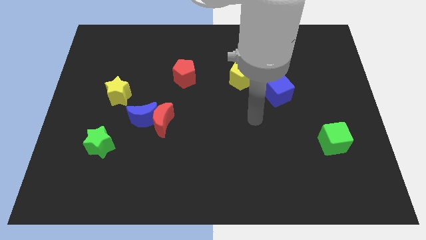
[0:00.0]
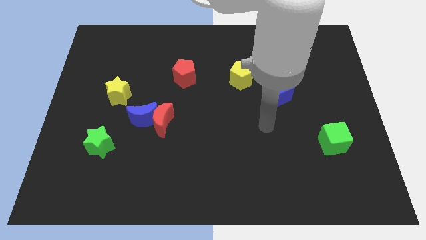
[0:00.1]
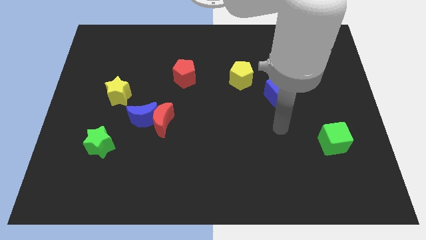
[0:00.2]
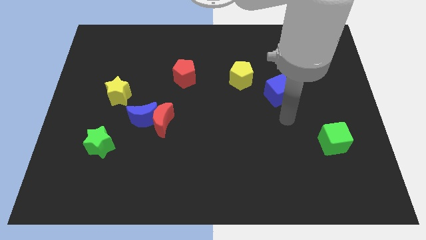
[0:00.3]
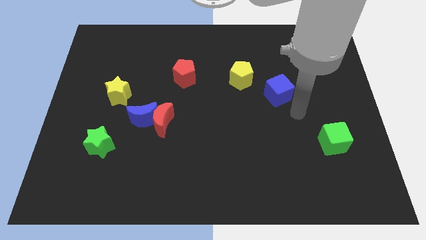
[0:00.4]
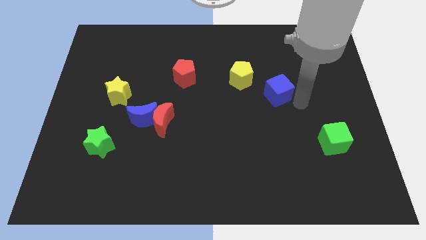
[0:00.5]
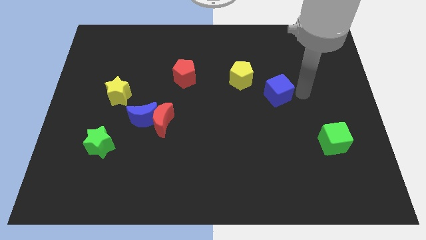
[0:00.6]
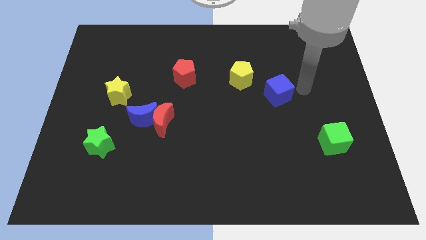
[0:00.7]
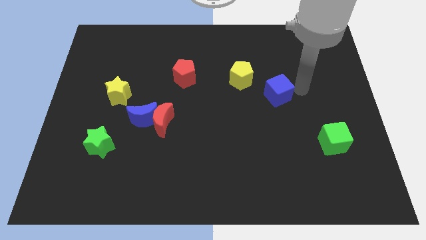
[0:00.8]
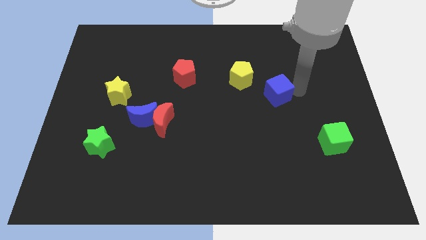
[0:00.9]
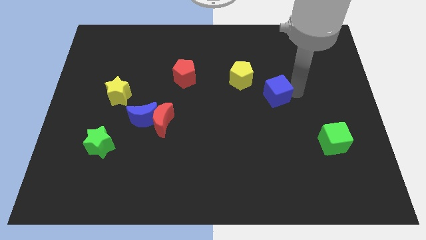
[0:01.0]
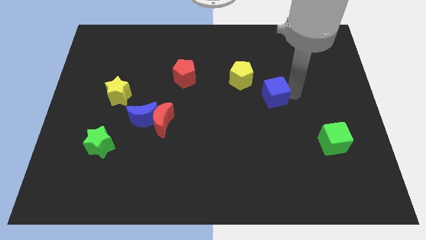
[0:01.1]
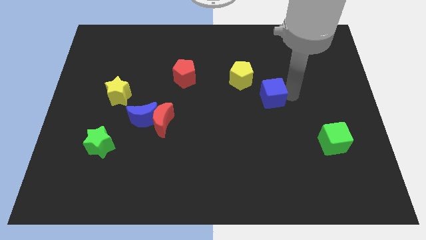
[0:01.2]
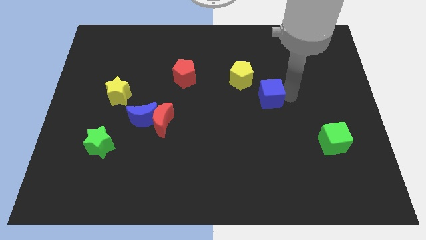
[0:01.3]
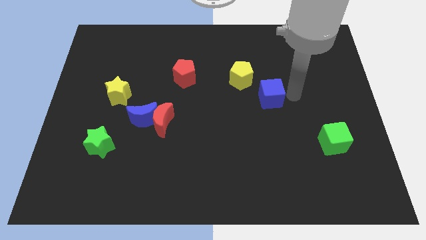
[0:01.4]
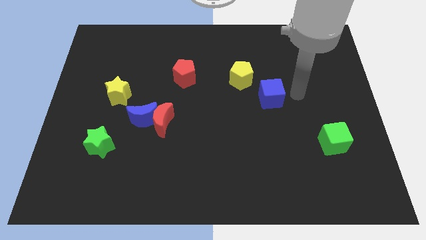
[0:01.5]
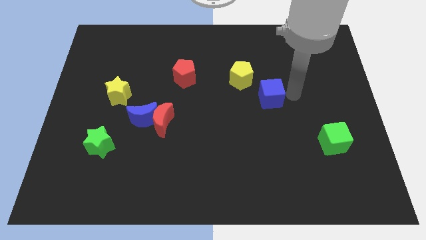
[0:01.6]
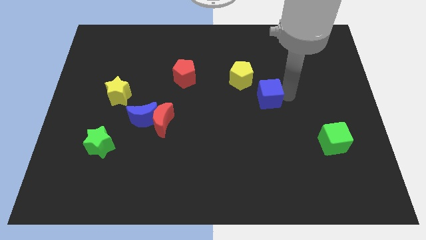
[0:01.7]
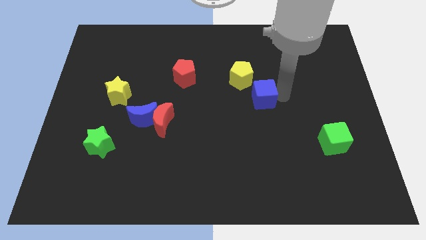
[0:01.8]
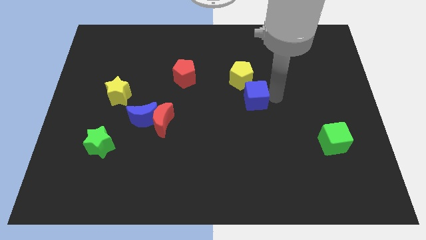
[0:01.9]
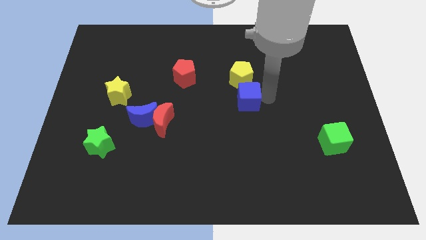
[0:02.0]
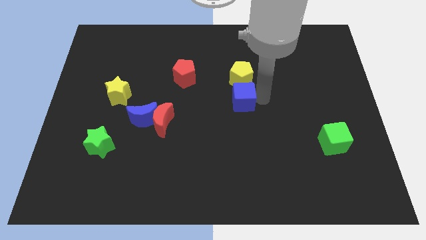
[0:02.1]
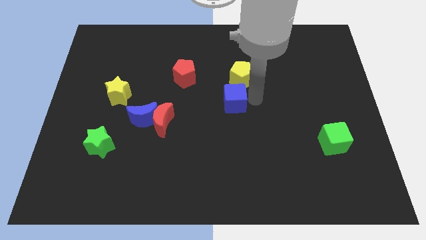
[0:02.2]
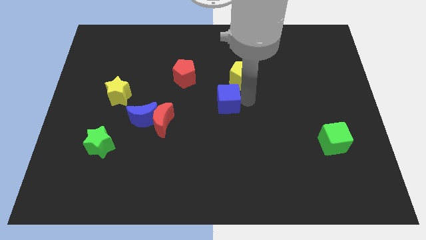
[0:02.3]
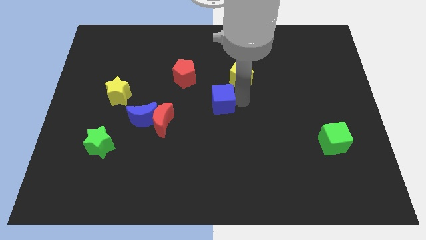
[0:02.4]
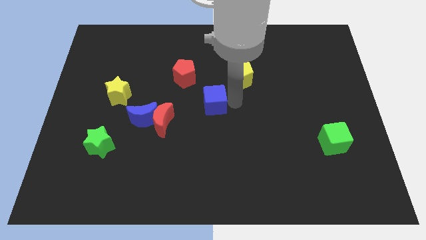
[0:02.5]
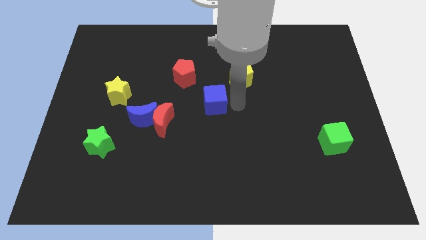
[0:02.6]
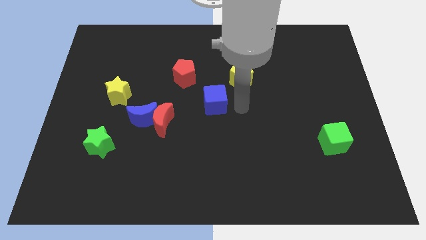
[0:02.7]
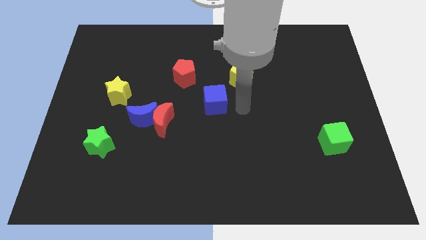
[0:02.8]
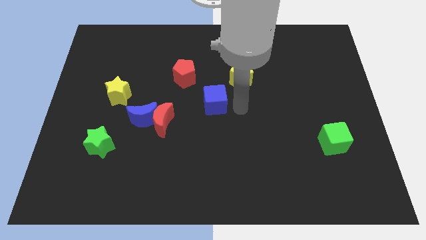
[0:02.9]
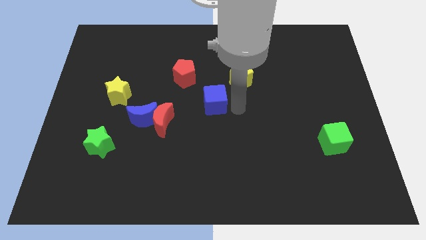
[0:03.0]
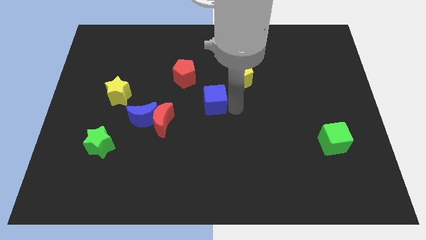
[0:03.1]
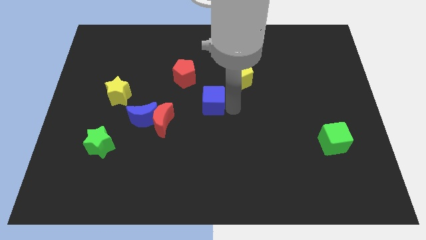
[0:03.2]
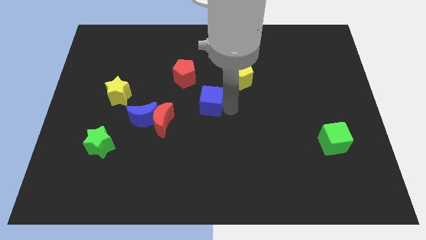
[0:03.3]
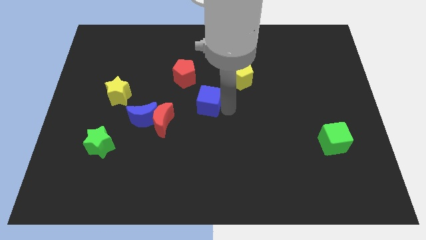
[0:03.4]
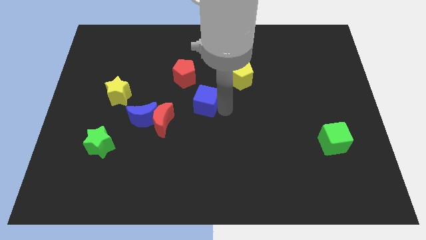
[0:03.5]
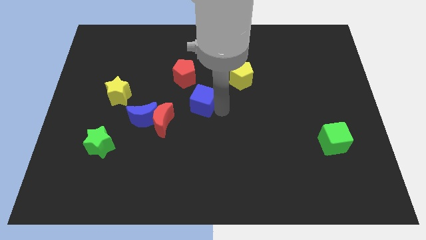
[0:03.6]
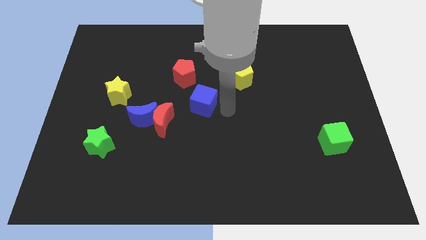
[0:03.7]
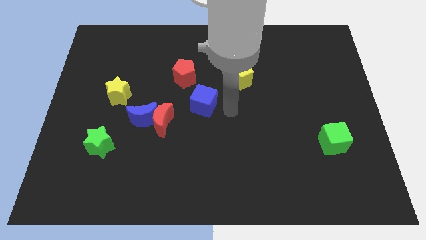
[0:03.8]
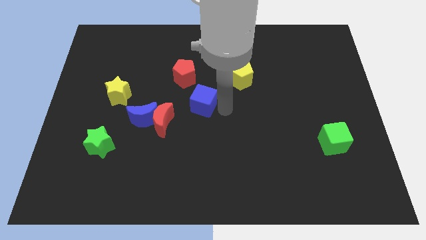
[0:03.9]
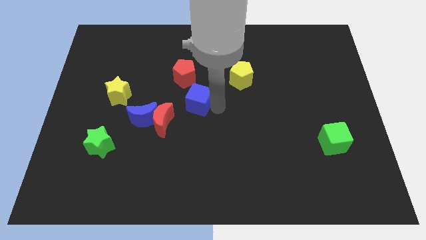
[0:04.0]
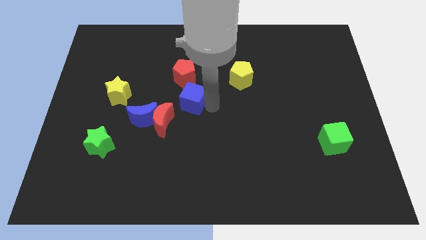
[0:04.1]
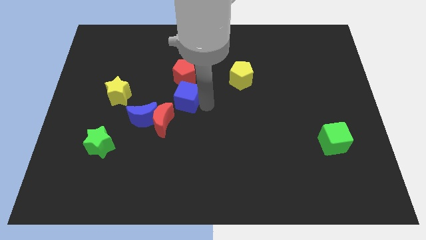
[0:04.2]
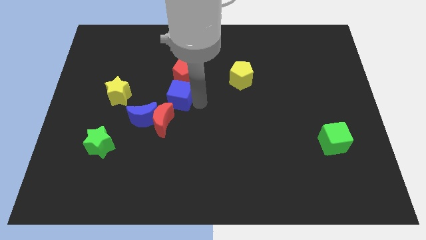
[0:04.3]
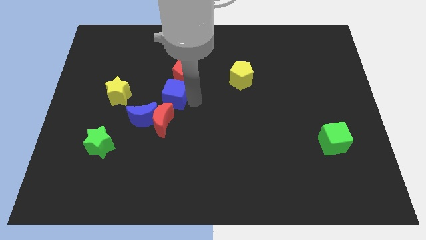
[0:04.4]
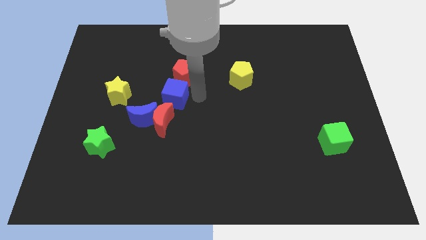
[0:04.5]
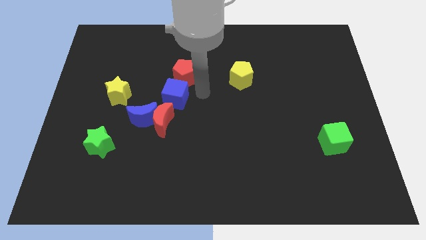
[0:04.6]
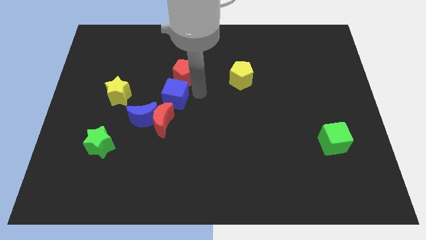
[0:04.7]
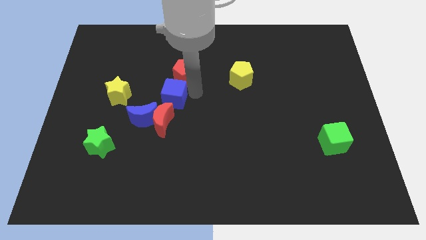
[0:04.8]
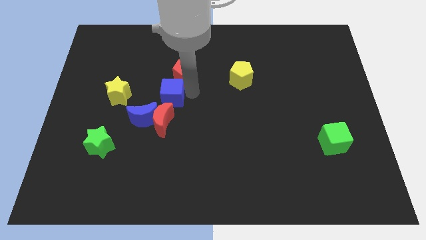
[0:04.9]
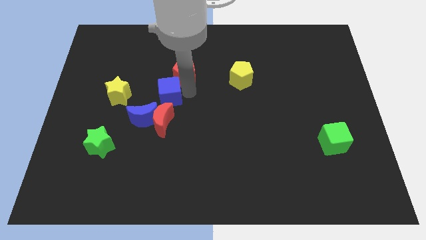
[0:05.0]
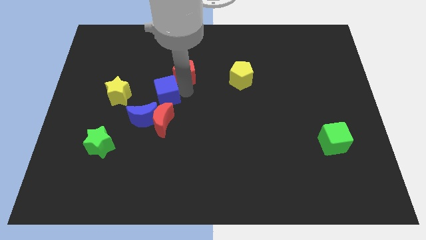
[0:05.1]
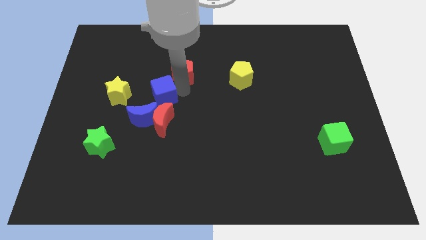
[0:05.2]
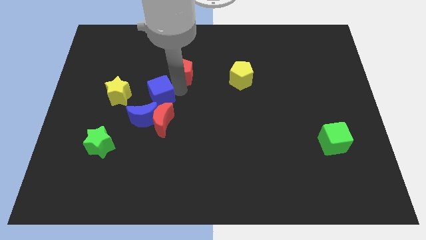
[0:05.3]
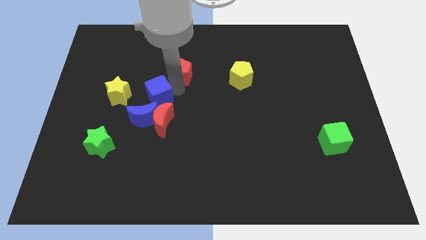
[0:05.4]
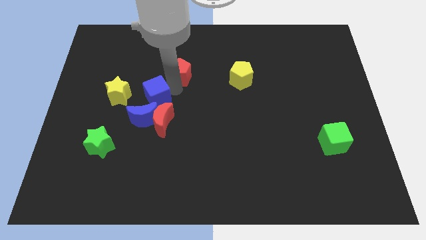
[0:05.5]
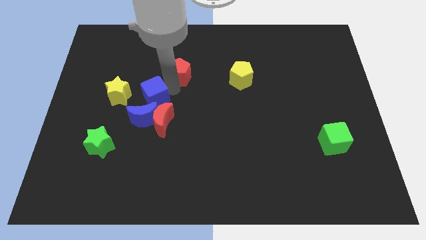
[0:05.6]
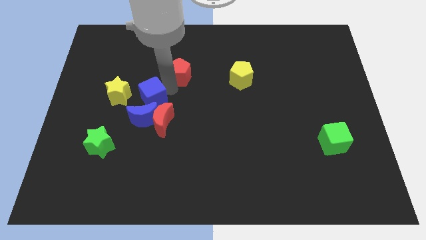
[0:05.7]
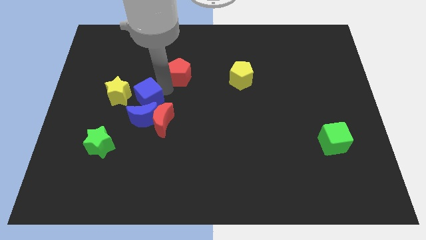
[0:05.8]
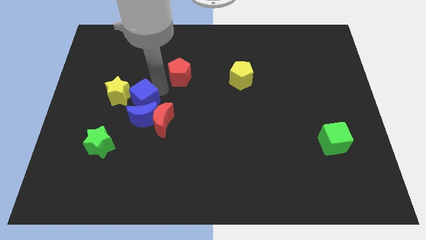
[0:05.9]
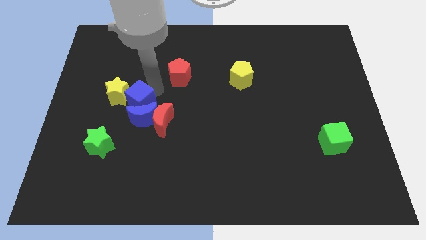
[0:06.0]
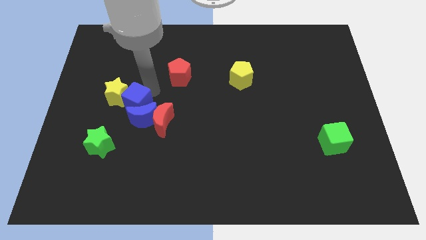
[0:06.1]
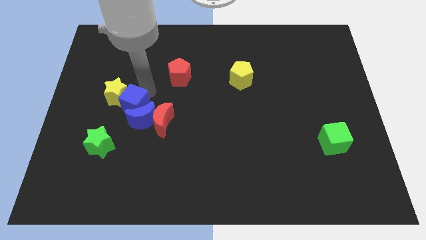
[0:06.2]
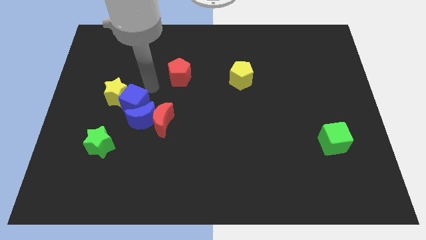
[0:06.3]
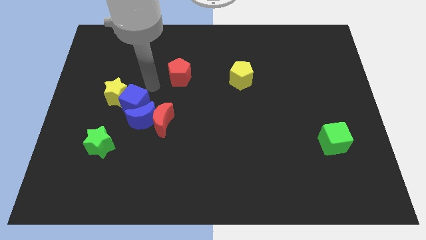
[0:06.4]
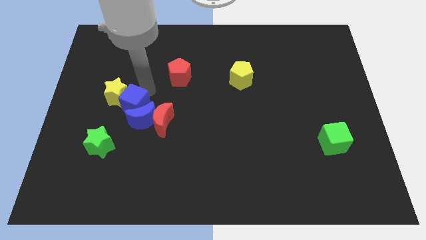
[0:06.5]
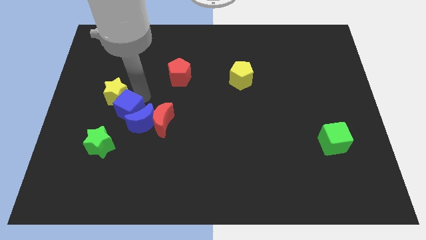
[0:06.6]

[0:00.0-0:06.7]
put the blue cube below the yellow star
